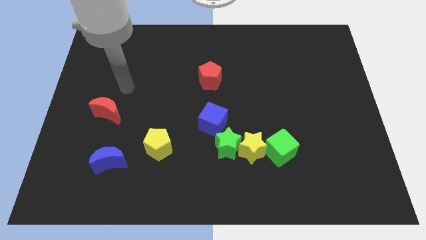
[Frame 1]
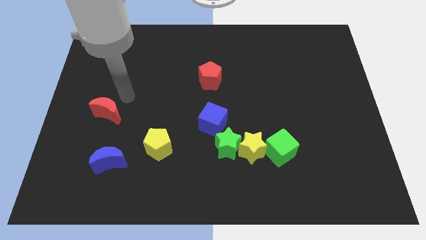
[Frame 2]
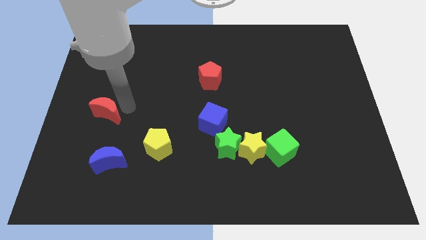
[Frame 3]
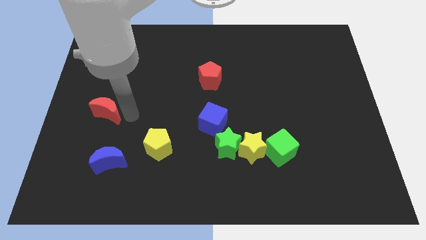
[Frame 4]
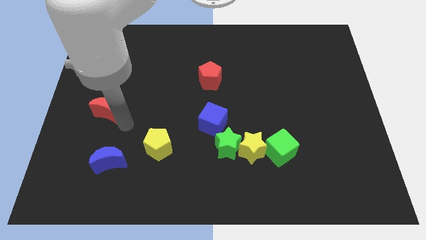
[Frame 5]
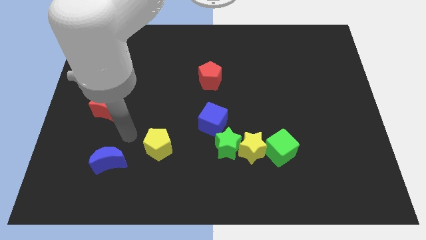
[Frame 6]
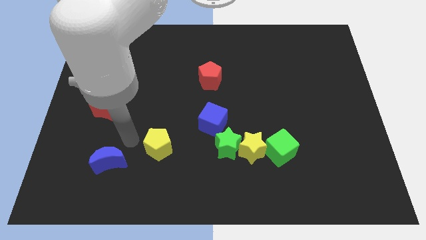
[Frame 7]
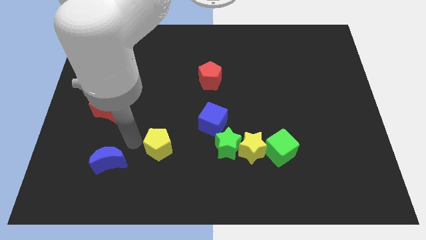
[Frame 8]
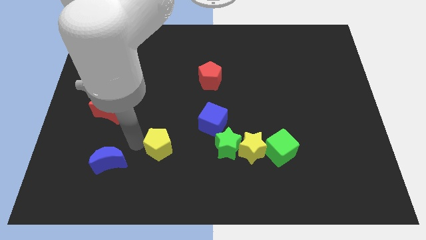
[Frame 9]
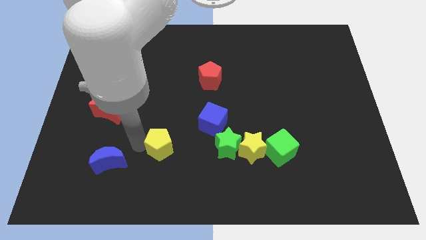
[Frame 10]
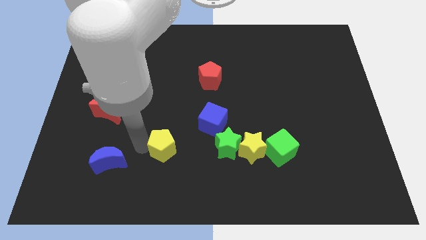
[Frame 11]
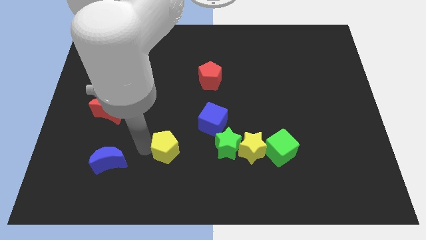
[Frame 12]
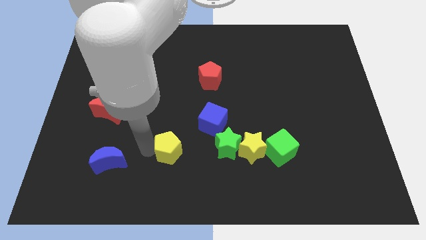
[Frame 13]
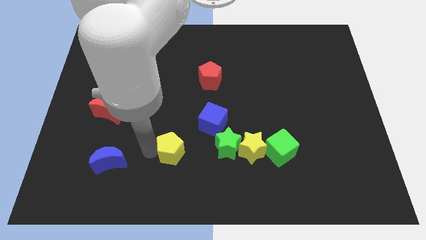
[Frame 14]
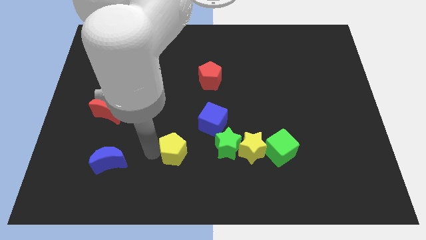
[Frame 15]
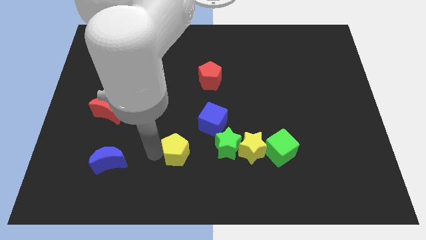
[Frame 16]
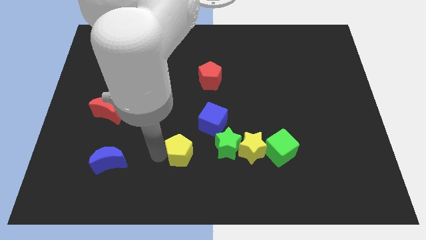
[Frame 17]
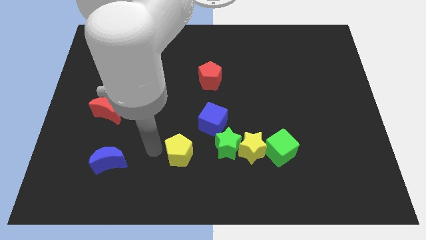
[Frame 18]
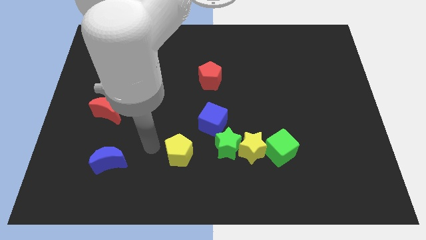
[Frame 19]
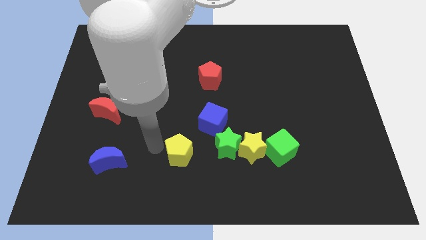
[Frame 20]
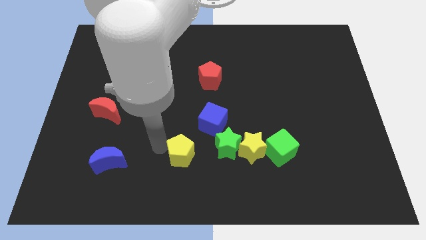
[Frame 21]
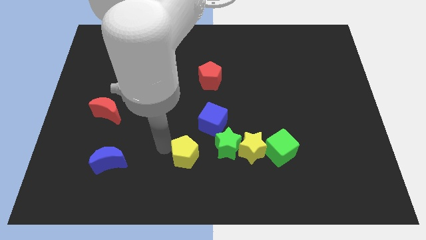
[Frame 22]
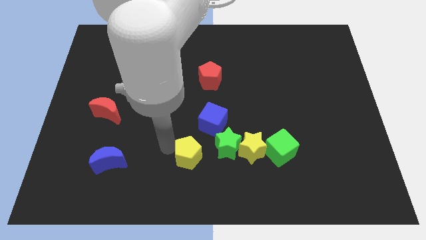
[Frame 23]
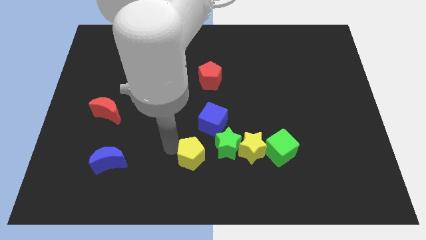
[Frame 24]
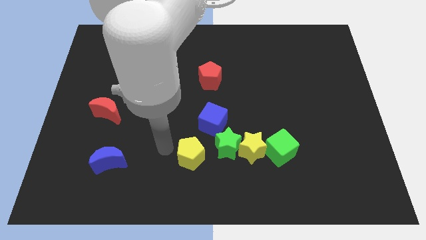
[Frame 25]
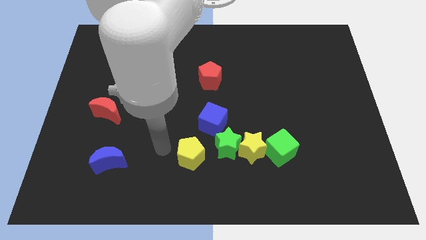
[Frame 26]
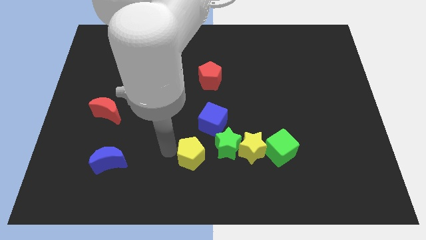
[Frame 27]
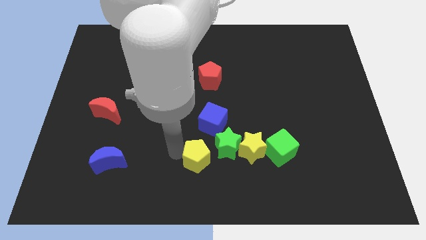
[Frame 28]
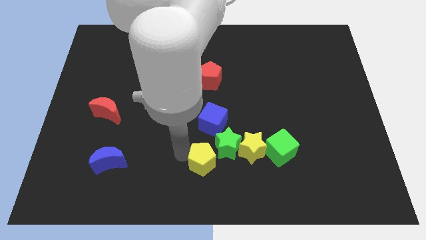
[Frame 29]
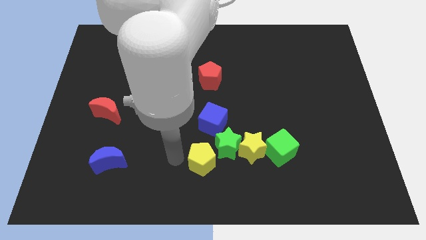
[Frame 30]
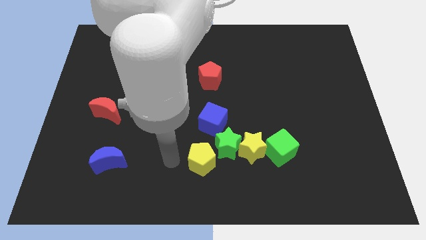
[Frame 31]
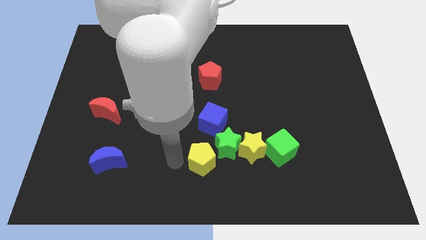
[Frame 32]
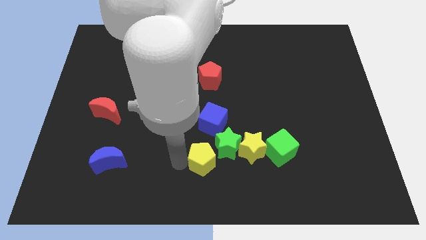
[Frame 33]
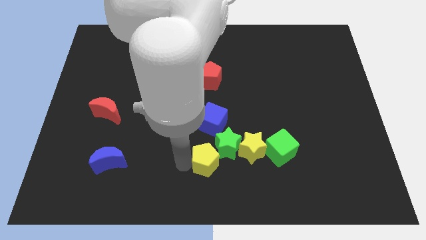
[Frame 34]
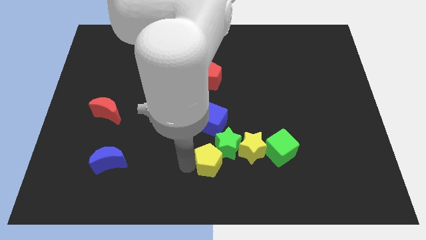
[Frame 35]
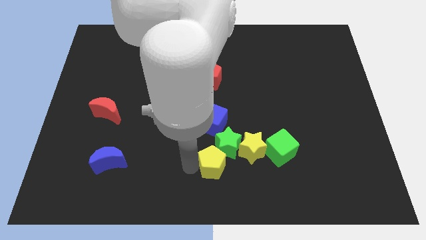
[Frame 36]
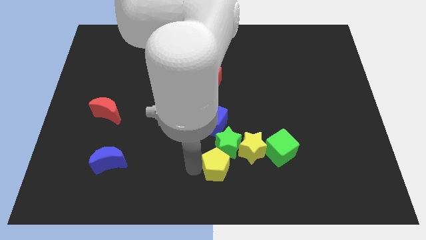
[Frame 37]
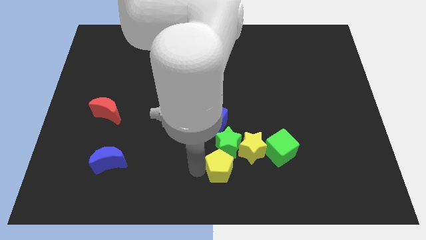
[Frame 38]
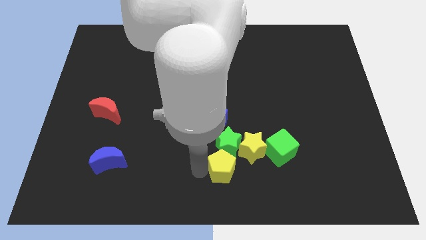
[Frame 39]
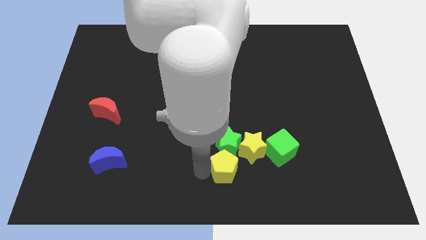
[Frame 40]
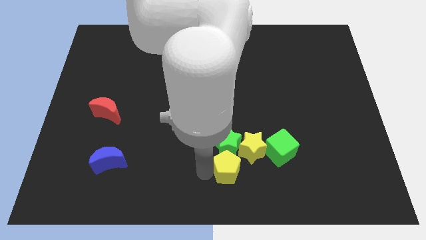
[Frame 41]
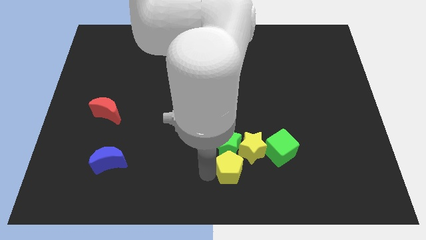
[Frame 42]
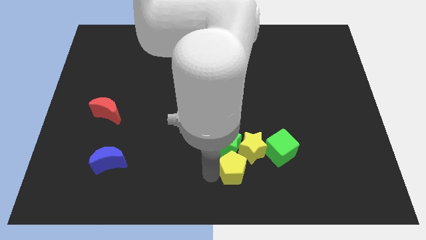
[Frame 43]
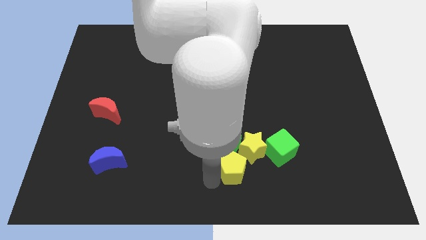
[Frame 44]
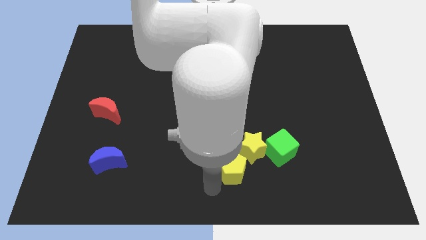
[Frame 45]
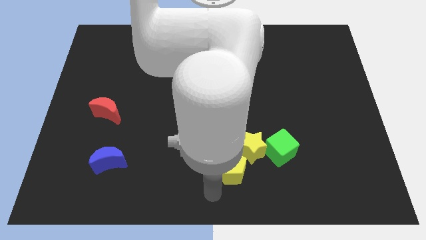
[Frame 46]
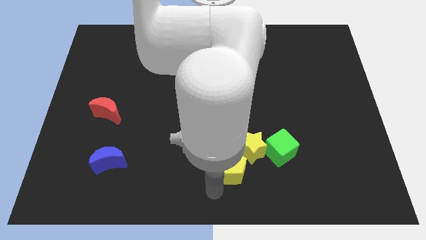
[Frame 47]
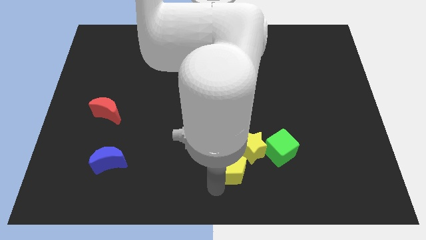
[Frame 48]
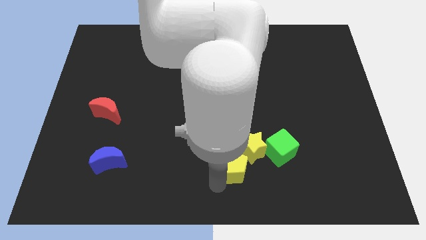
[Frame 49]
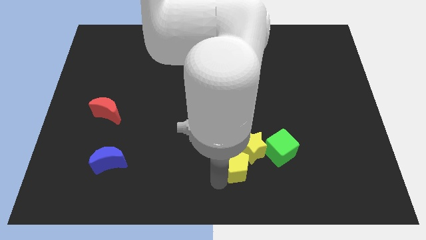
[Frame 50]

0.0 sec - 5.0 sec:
slide the yellow pentagon to the yellow star

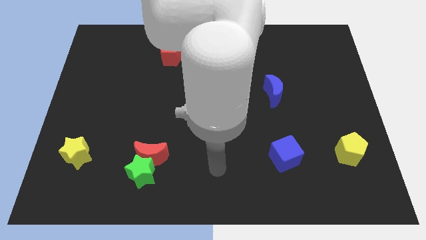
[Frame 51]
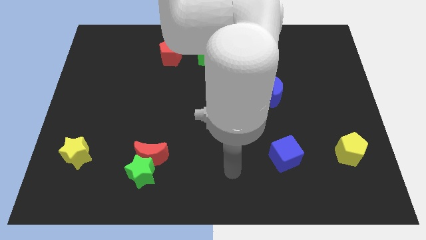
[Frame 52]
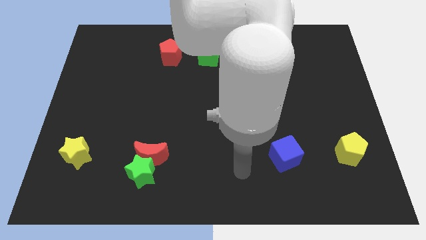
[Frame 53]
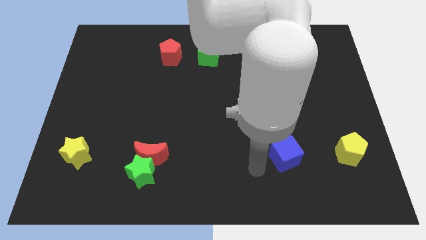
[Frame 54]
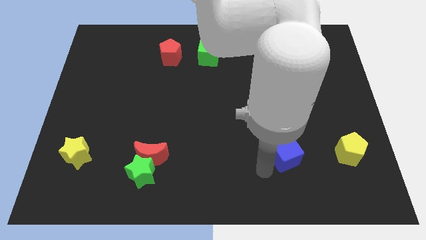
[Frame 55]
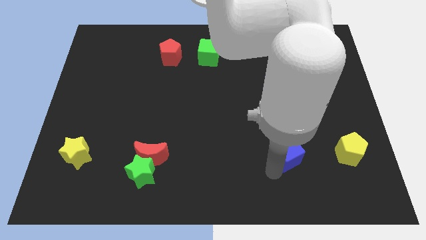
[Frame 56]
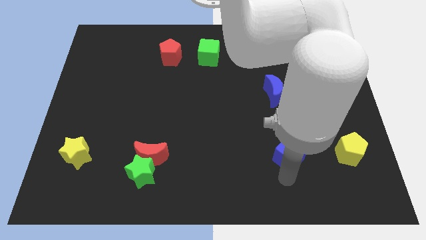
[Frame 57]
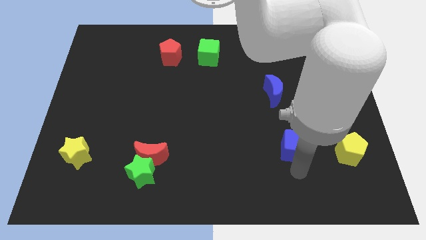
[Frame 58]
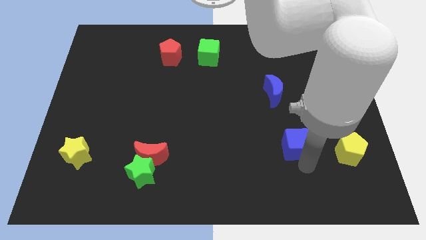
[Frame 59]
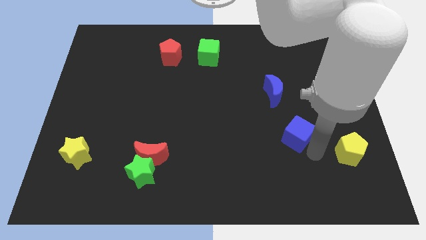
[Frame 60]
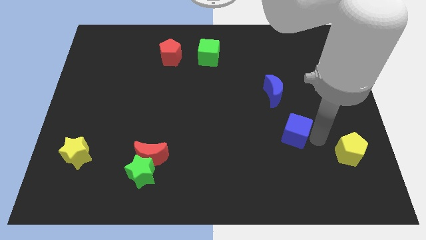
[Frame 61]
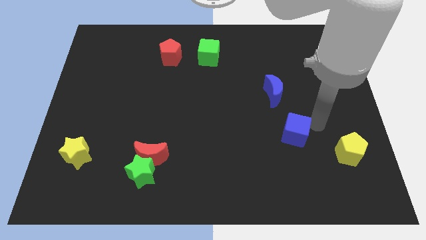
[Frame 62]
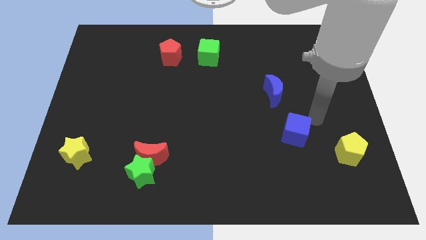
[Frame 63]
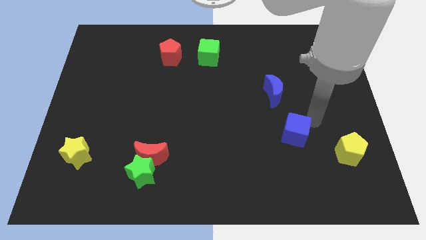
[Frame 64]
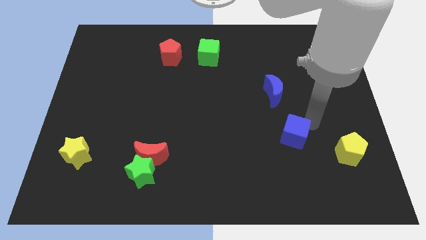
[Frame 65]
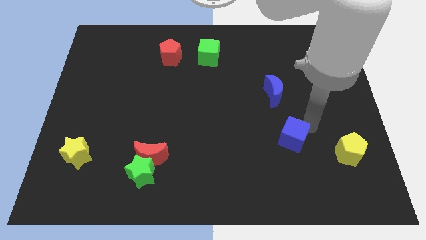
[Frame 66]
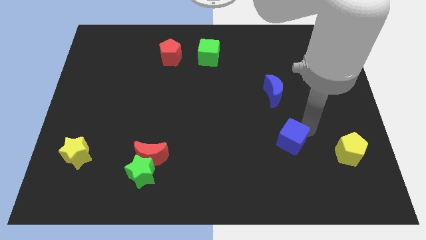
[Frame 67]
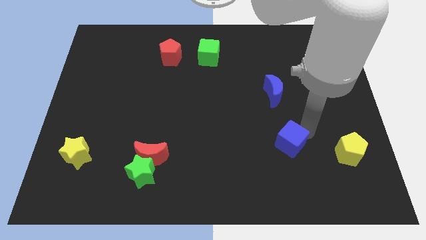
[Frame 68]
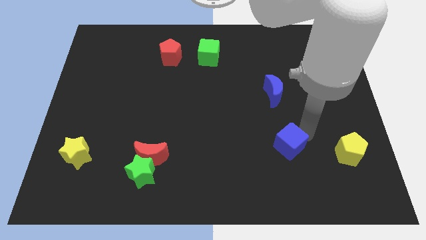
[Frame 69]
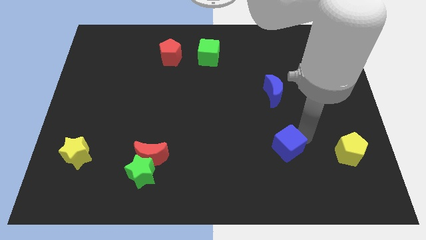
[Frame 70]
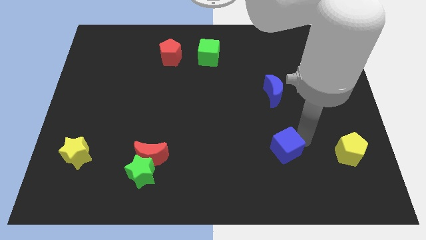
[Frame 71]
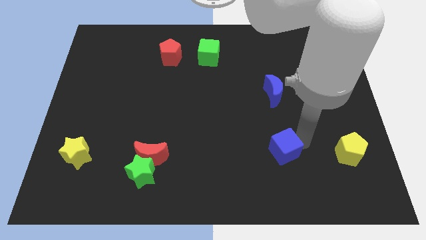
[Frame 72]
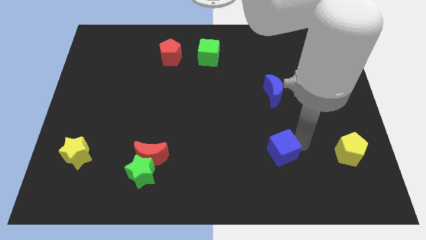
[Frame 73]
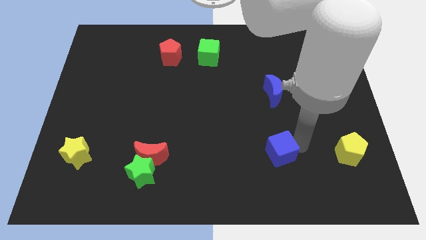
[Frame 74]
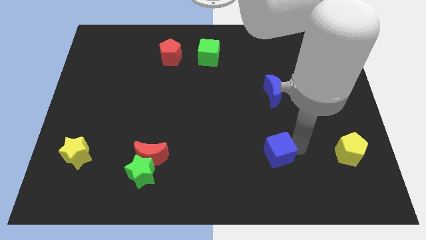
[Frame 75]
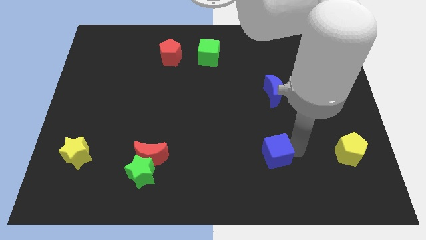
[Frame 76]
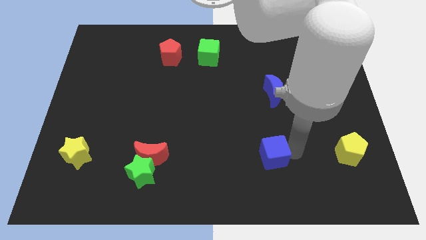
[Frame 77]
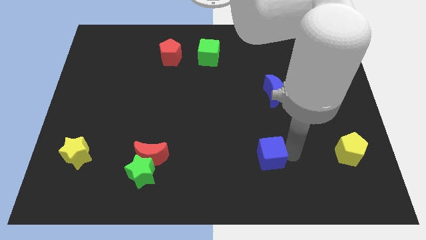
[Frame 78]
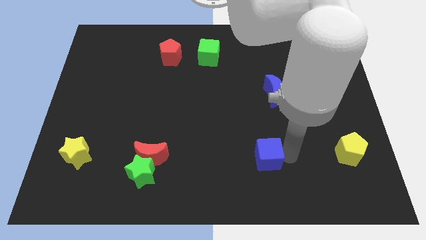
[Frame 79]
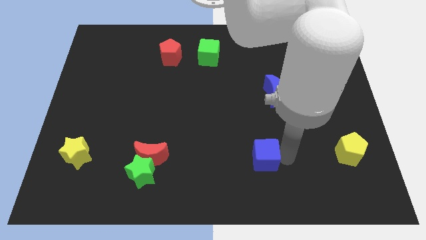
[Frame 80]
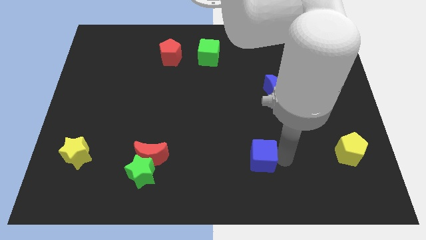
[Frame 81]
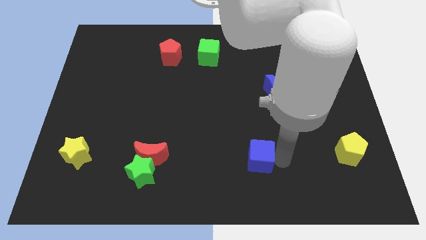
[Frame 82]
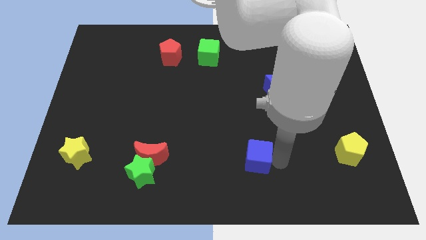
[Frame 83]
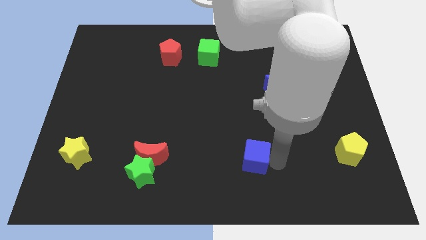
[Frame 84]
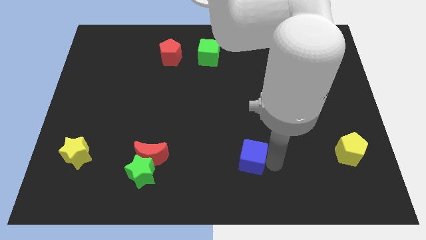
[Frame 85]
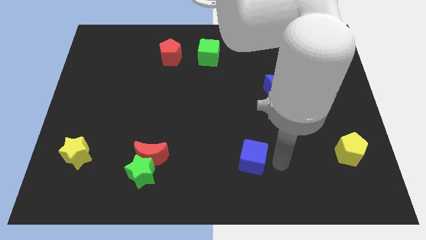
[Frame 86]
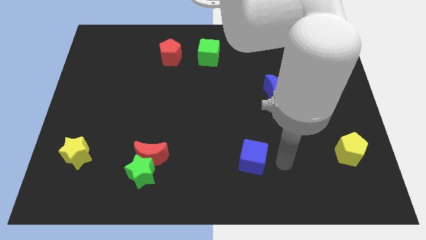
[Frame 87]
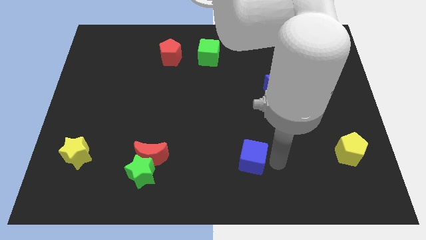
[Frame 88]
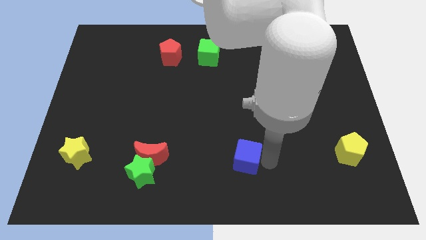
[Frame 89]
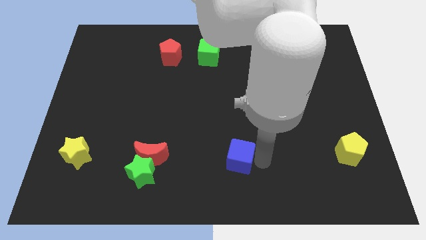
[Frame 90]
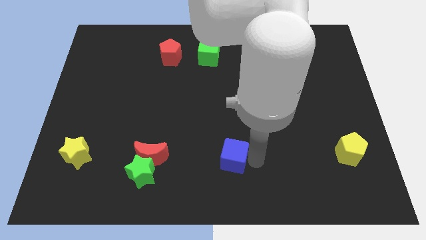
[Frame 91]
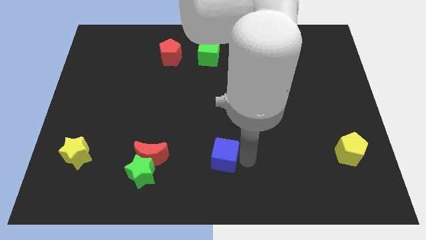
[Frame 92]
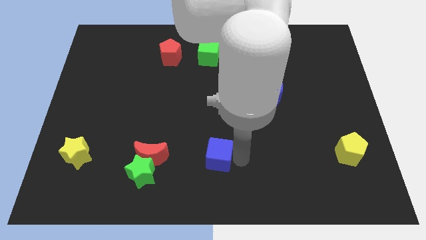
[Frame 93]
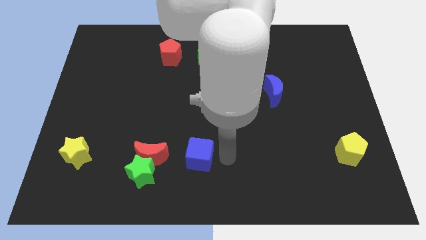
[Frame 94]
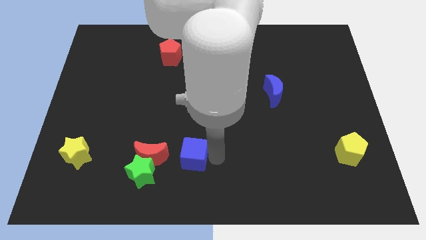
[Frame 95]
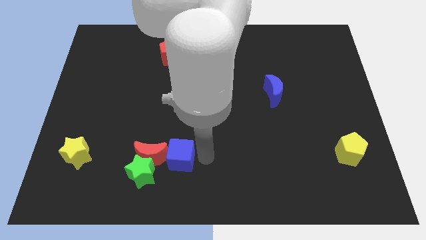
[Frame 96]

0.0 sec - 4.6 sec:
slide the blue cube to the red moon
